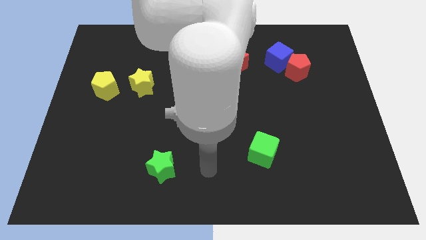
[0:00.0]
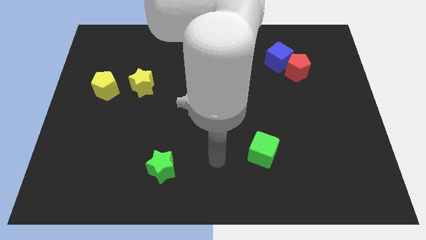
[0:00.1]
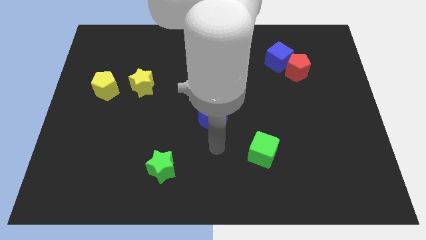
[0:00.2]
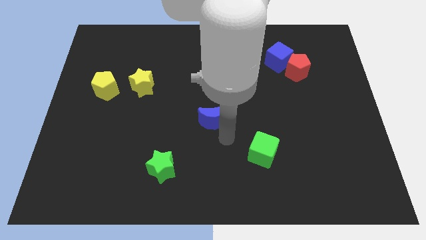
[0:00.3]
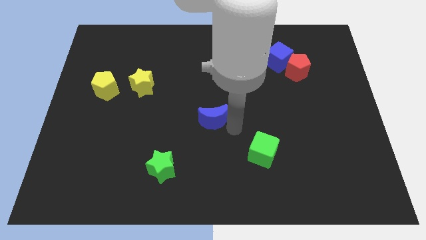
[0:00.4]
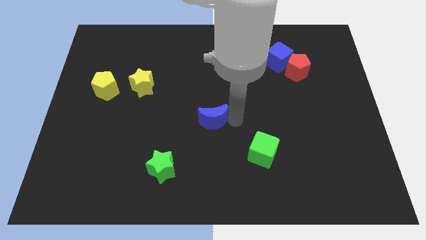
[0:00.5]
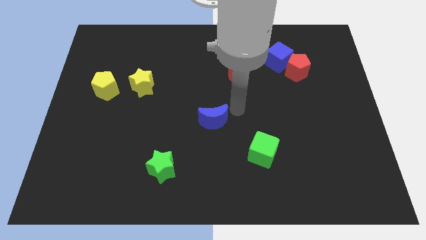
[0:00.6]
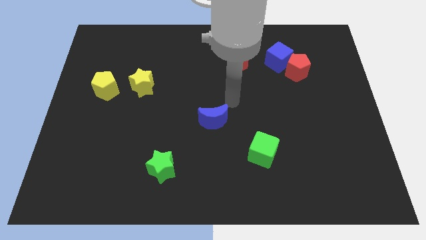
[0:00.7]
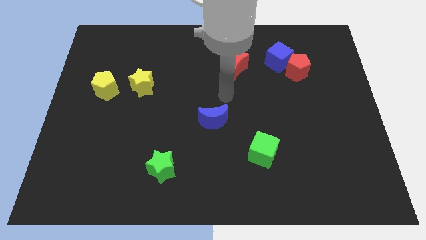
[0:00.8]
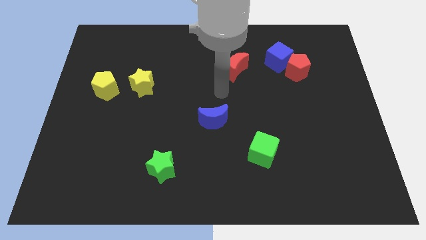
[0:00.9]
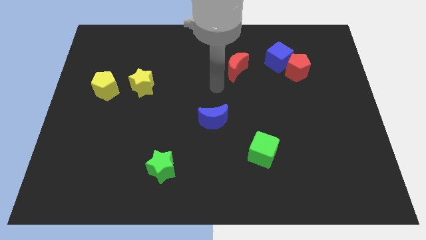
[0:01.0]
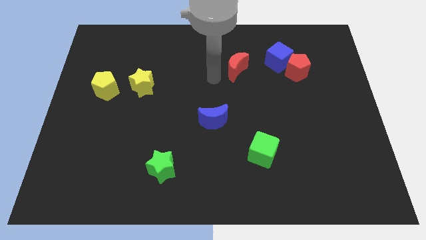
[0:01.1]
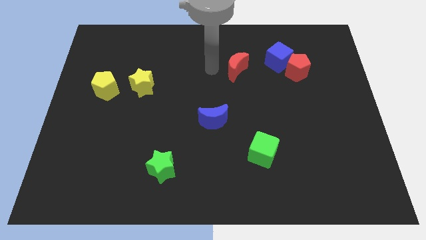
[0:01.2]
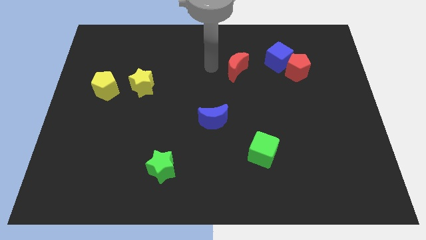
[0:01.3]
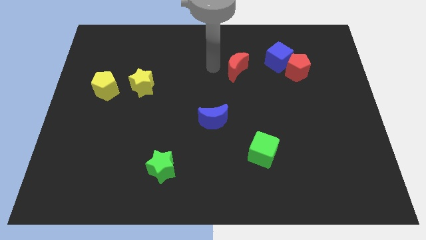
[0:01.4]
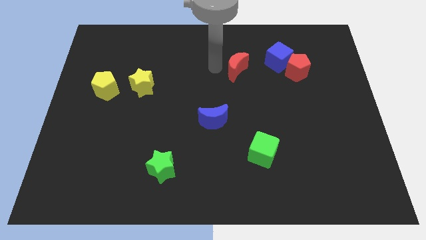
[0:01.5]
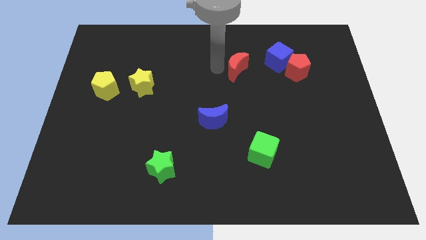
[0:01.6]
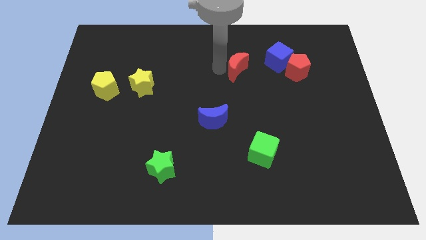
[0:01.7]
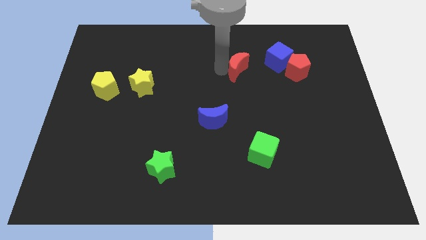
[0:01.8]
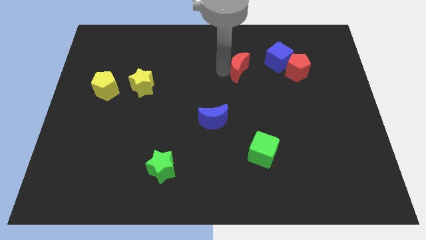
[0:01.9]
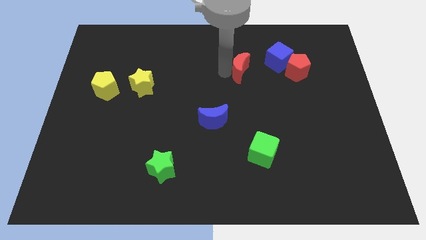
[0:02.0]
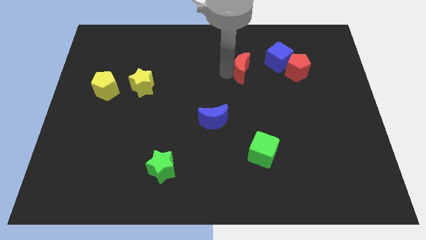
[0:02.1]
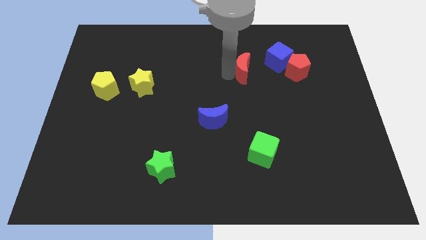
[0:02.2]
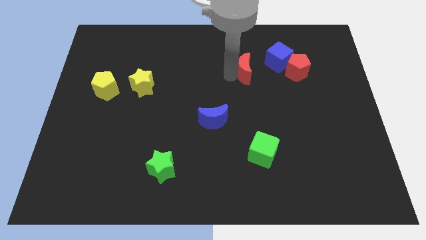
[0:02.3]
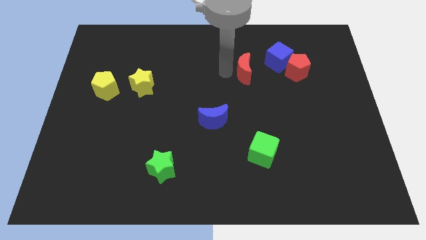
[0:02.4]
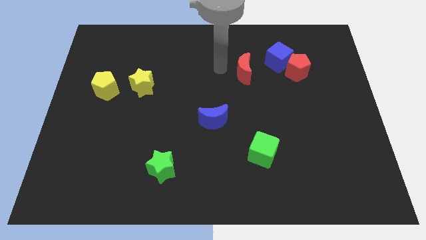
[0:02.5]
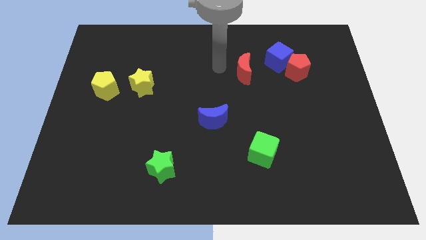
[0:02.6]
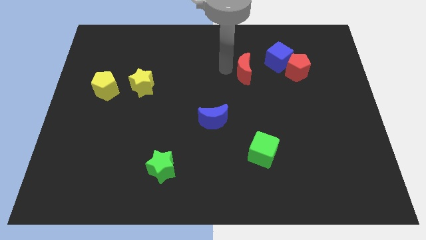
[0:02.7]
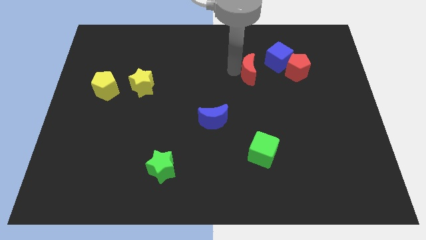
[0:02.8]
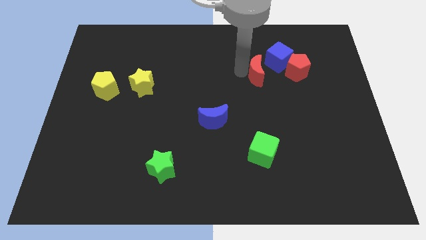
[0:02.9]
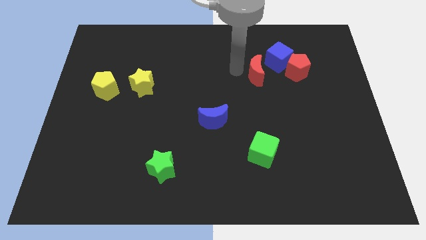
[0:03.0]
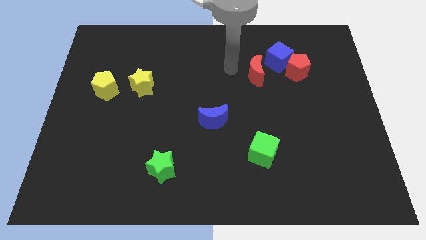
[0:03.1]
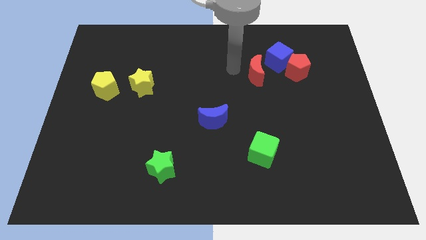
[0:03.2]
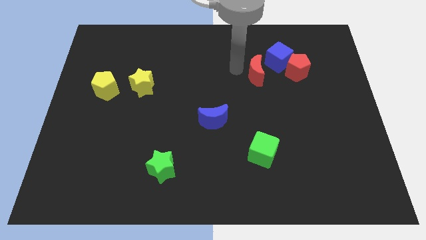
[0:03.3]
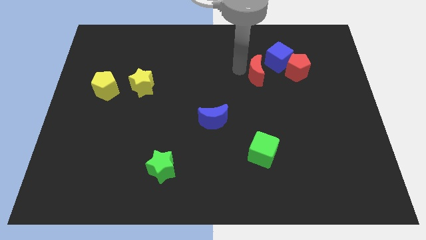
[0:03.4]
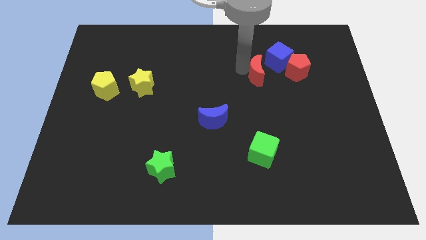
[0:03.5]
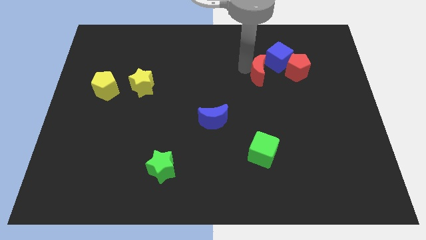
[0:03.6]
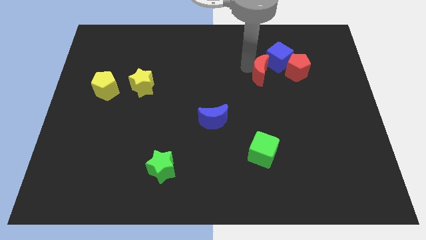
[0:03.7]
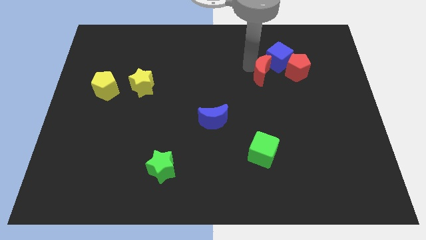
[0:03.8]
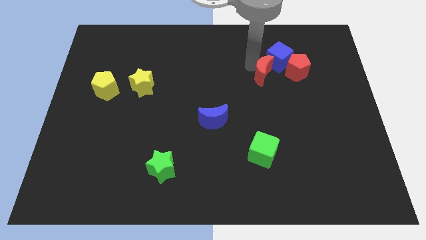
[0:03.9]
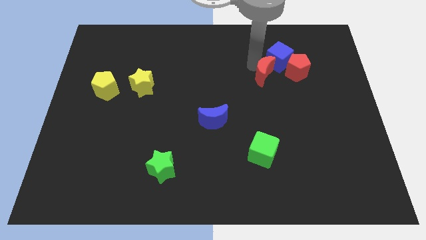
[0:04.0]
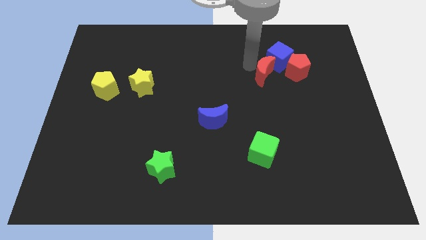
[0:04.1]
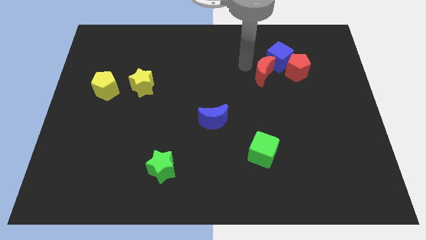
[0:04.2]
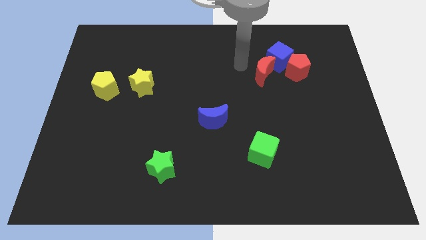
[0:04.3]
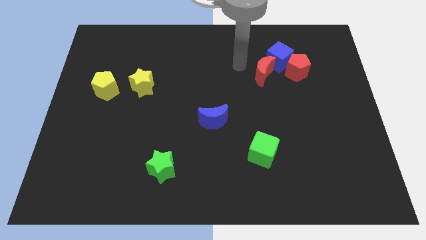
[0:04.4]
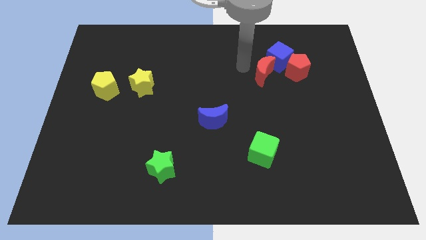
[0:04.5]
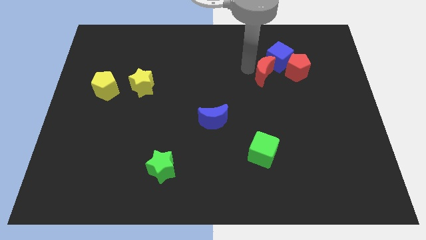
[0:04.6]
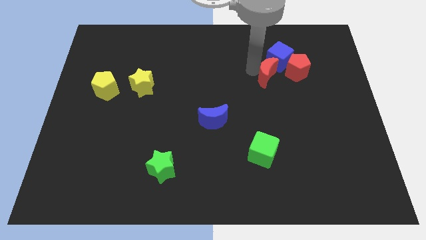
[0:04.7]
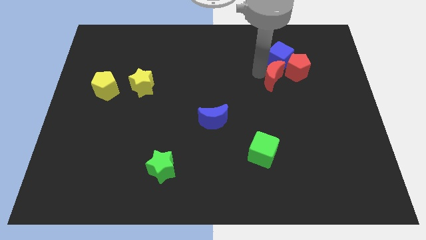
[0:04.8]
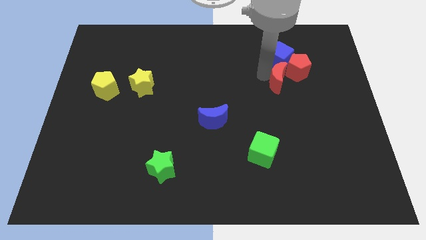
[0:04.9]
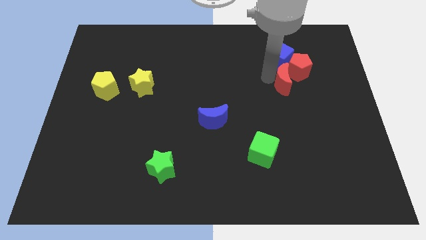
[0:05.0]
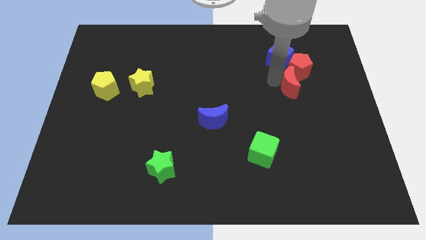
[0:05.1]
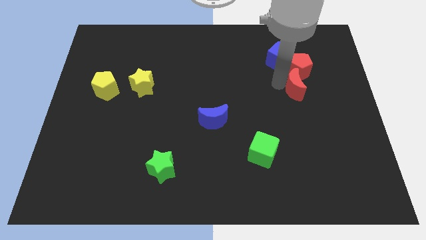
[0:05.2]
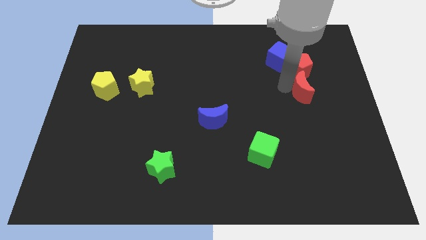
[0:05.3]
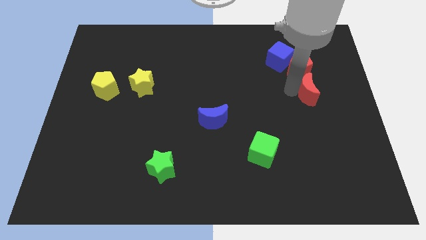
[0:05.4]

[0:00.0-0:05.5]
move the red moon diagonally down and to the right of the red pentagon

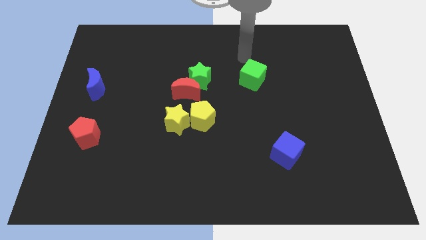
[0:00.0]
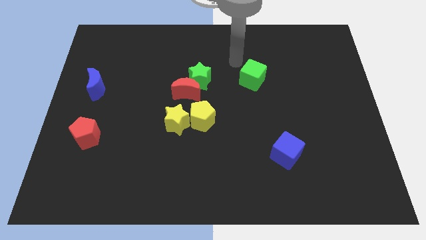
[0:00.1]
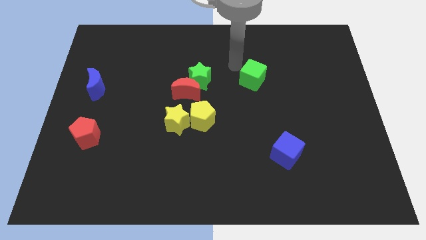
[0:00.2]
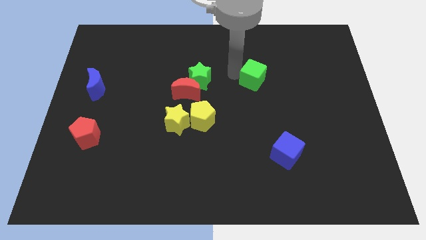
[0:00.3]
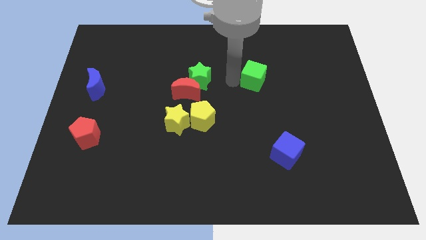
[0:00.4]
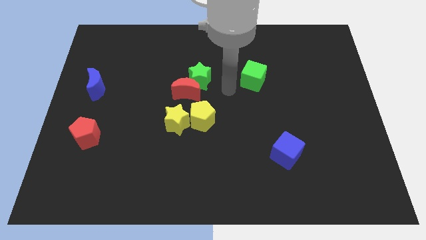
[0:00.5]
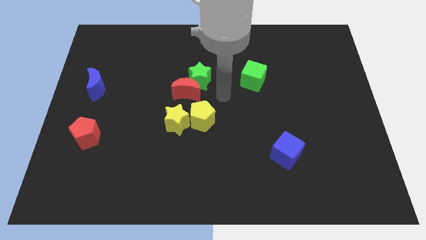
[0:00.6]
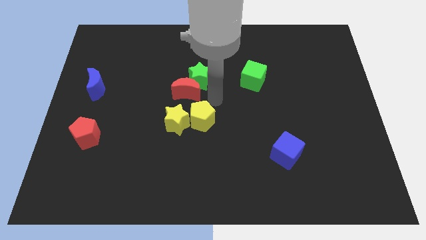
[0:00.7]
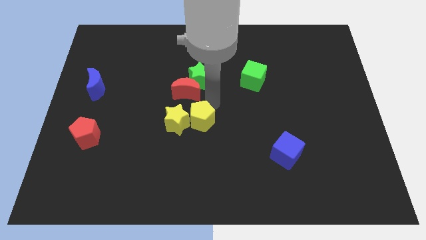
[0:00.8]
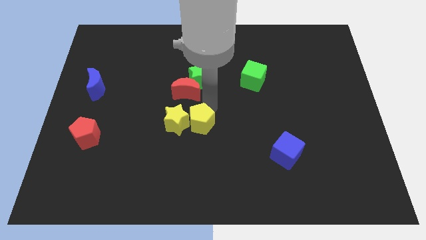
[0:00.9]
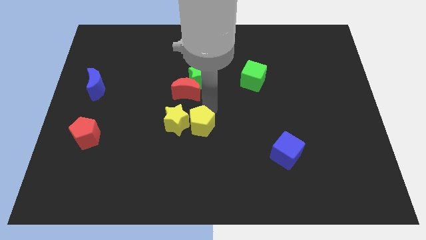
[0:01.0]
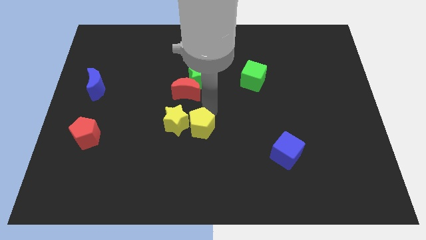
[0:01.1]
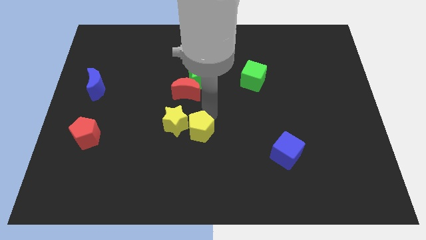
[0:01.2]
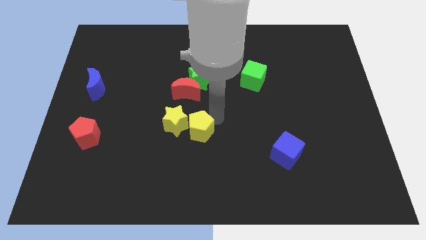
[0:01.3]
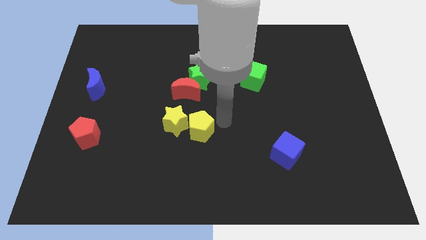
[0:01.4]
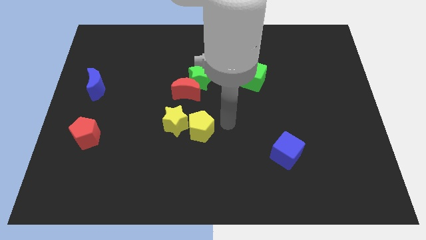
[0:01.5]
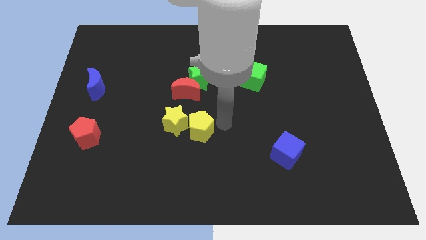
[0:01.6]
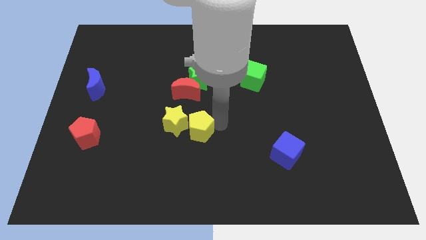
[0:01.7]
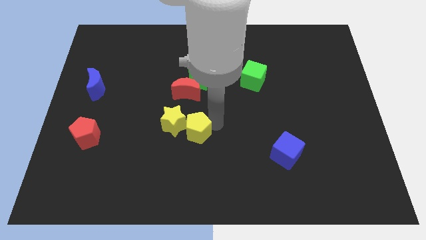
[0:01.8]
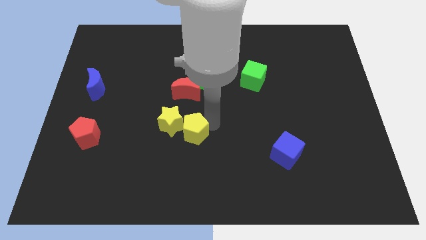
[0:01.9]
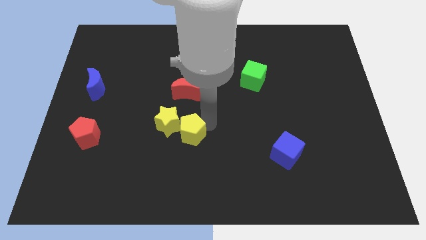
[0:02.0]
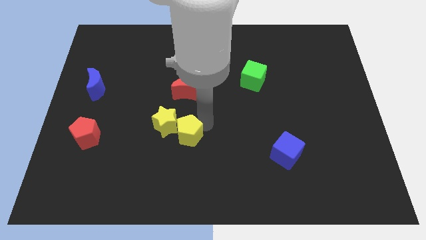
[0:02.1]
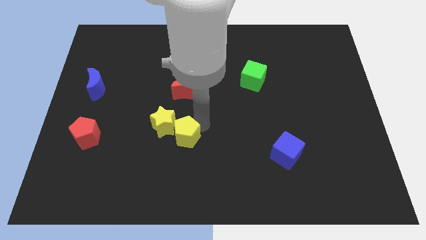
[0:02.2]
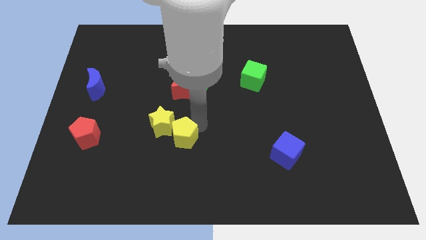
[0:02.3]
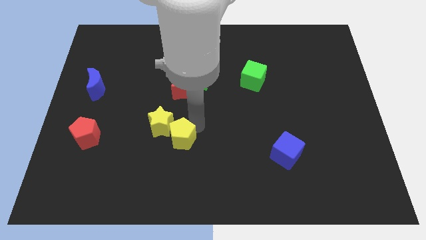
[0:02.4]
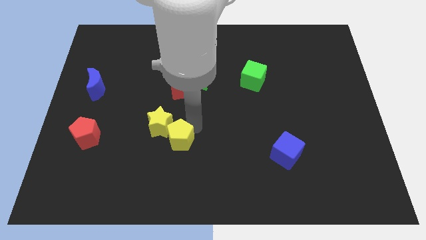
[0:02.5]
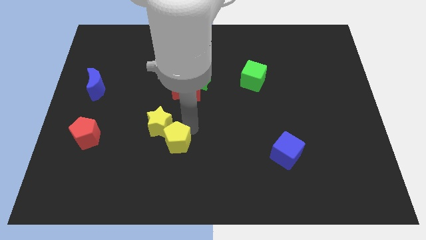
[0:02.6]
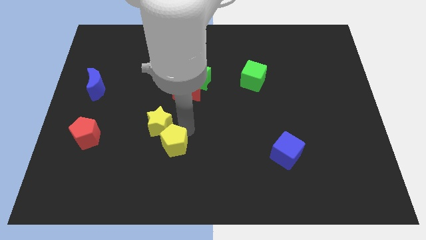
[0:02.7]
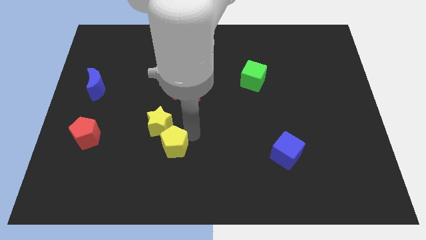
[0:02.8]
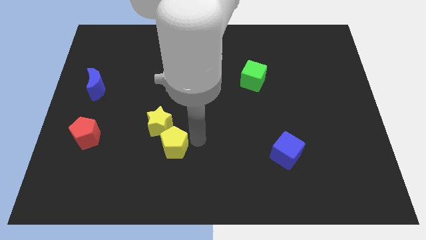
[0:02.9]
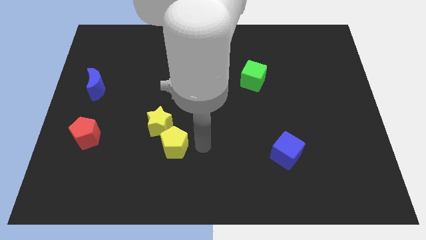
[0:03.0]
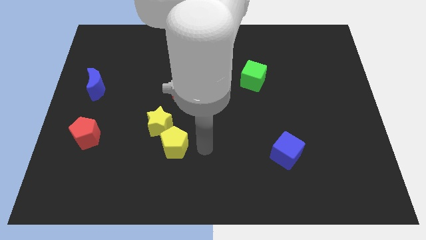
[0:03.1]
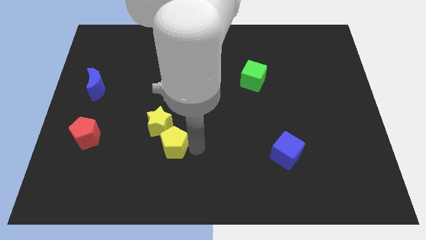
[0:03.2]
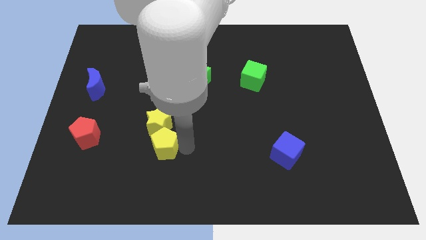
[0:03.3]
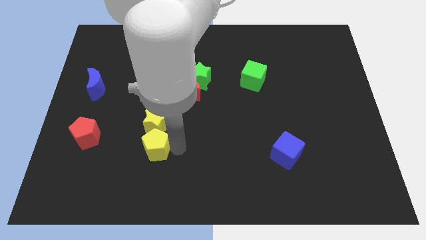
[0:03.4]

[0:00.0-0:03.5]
slide the yellow pentagon to the bottom left side of the yellow star
